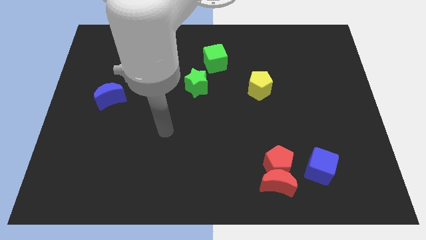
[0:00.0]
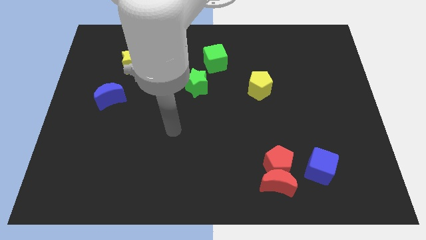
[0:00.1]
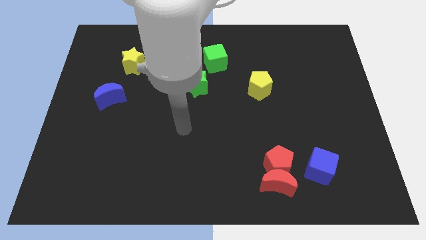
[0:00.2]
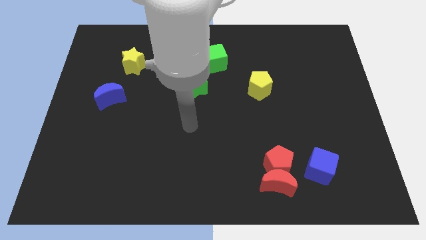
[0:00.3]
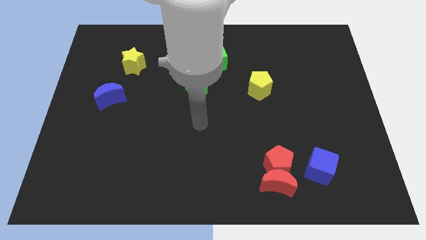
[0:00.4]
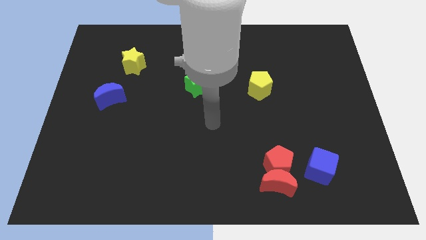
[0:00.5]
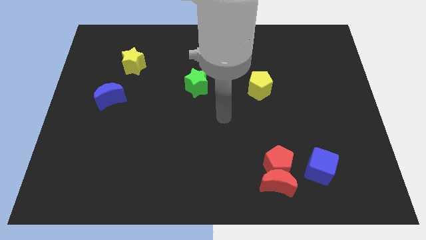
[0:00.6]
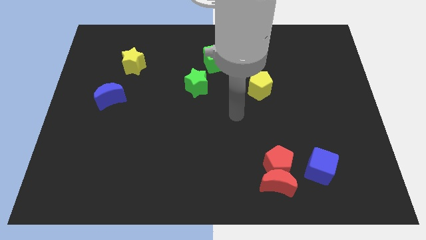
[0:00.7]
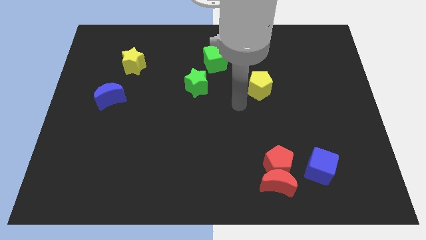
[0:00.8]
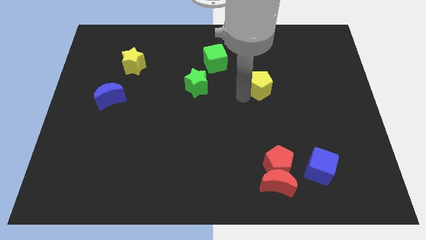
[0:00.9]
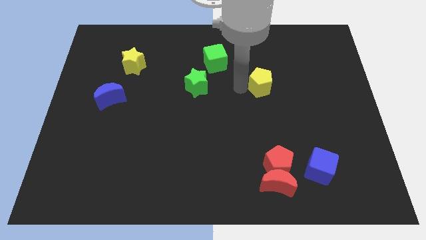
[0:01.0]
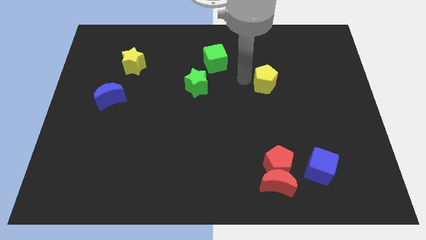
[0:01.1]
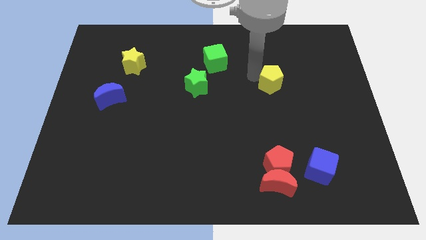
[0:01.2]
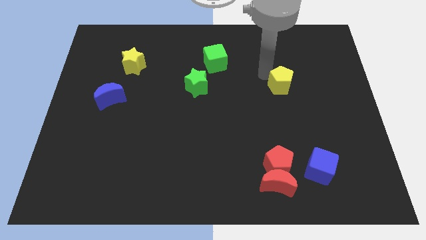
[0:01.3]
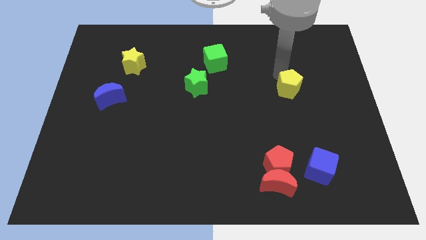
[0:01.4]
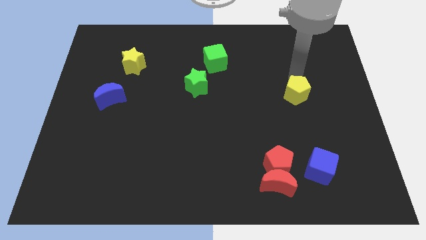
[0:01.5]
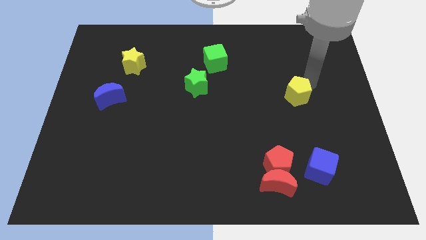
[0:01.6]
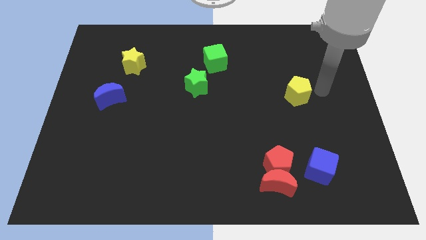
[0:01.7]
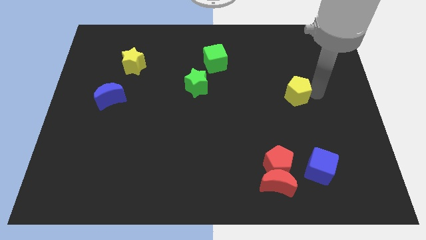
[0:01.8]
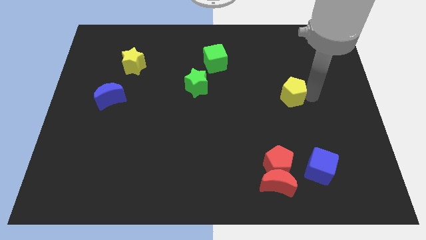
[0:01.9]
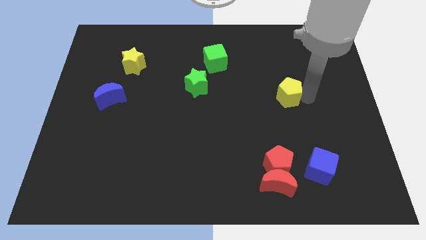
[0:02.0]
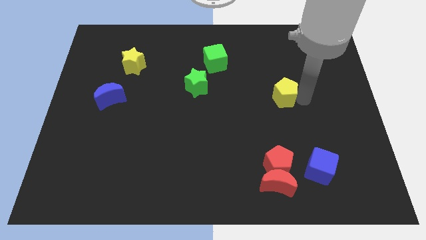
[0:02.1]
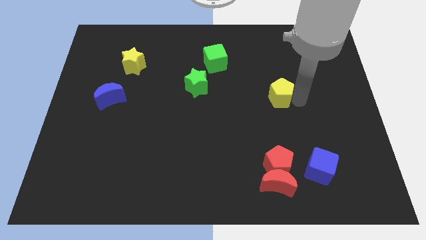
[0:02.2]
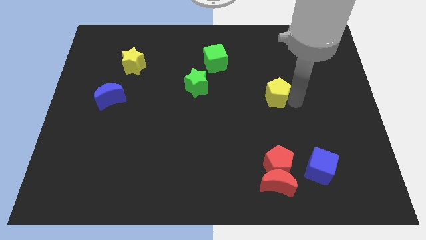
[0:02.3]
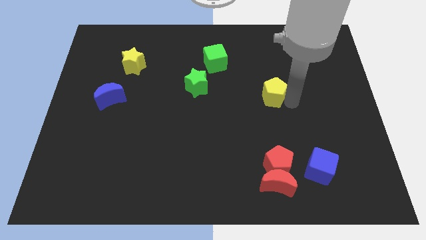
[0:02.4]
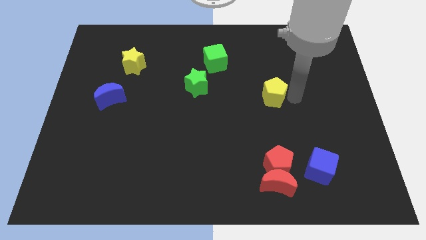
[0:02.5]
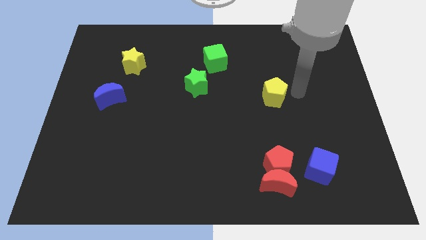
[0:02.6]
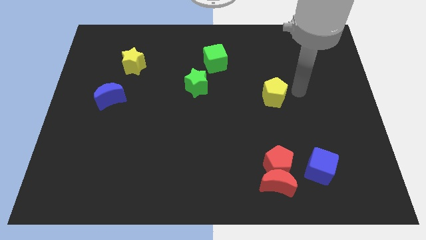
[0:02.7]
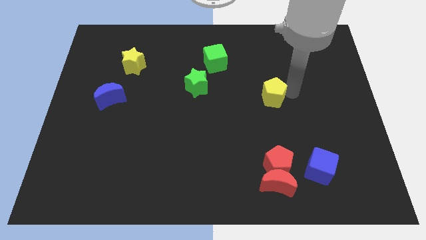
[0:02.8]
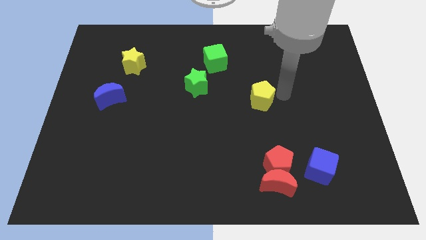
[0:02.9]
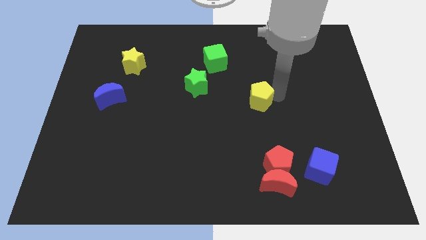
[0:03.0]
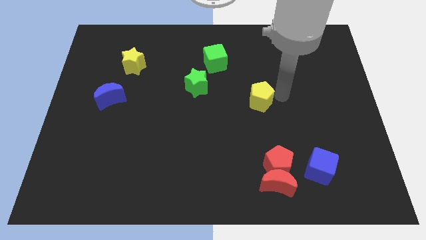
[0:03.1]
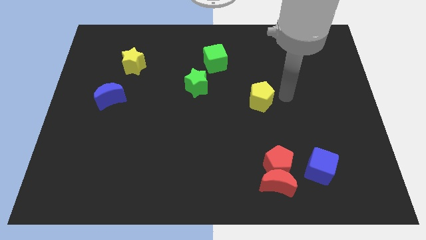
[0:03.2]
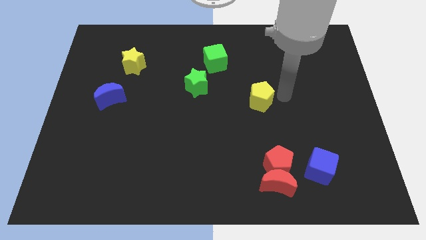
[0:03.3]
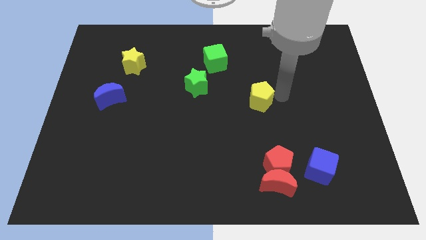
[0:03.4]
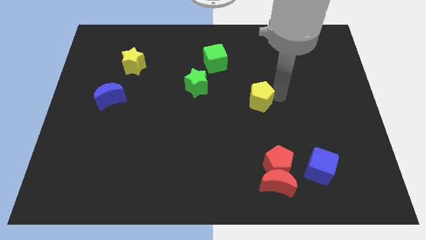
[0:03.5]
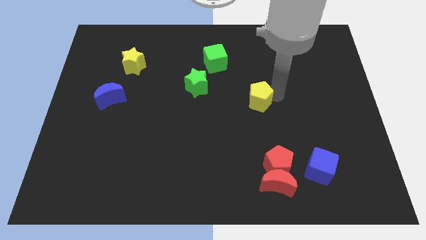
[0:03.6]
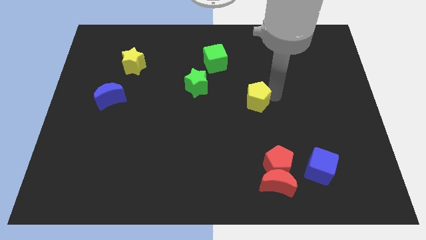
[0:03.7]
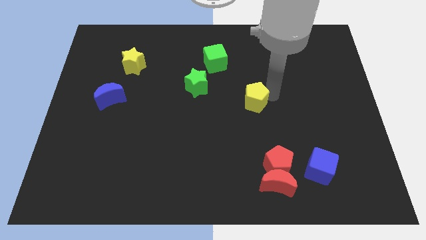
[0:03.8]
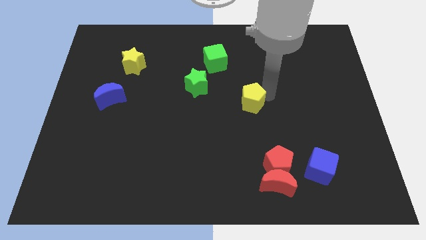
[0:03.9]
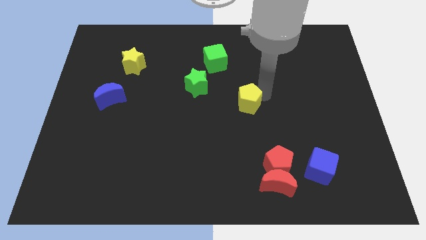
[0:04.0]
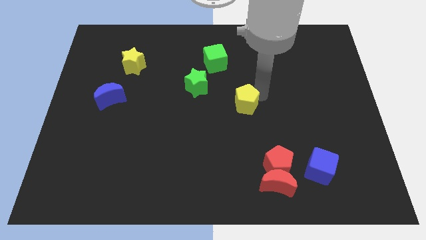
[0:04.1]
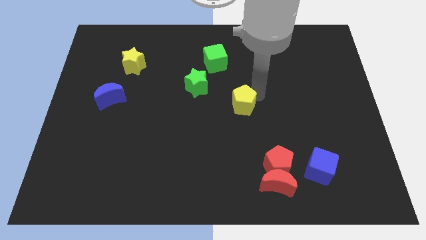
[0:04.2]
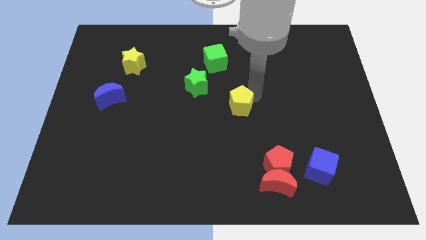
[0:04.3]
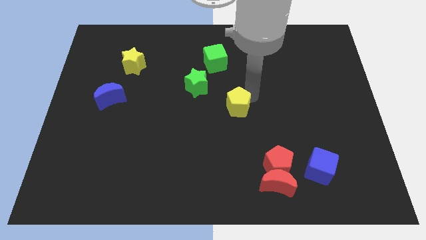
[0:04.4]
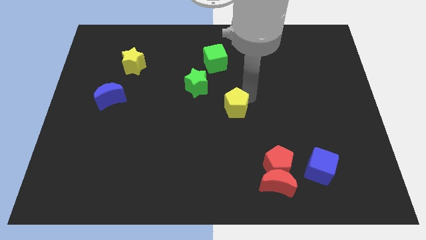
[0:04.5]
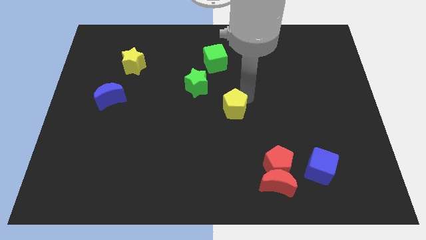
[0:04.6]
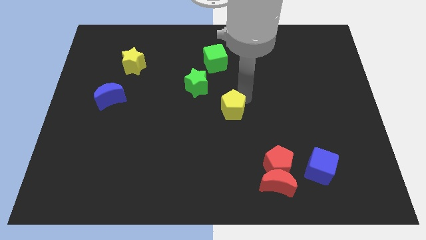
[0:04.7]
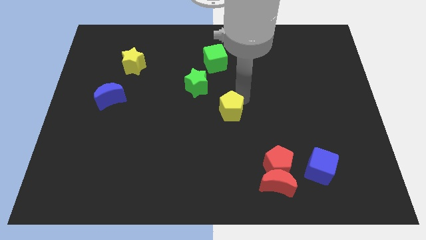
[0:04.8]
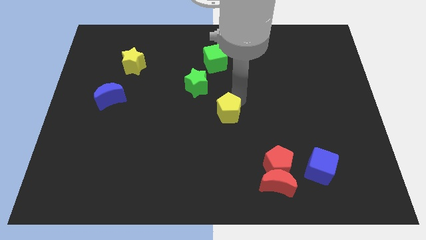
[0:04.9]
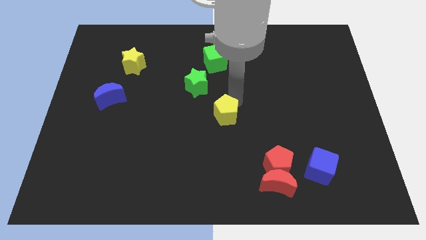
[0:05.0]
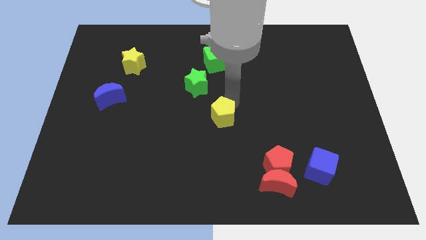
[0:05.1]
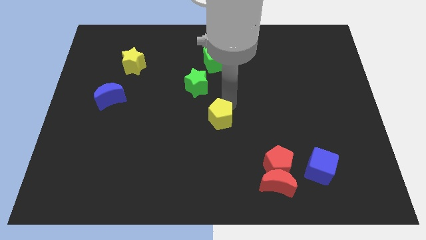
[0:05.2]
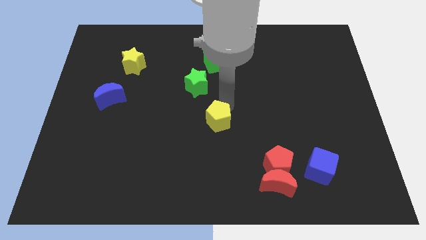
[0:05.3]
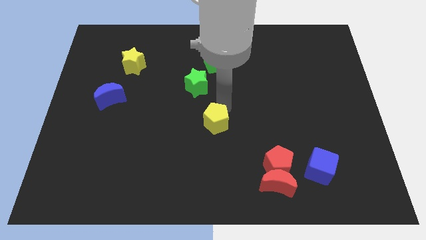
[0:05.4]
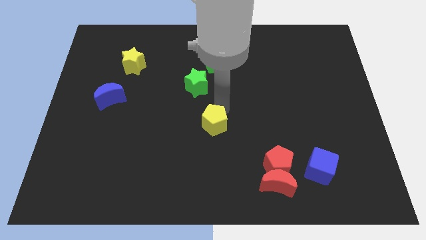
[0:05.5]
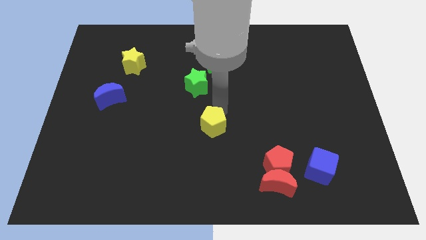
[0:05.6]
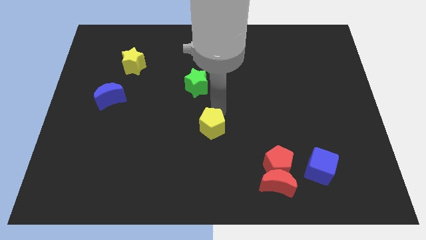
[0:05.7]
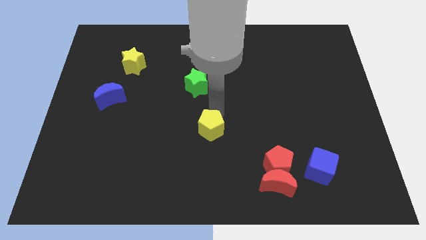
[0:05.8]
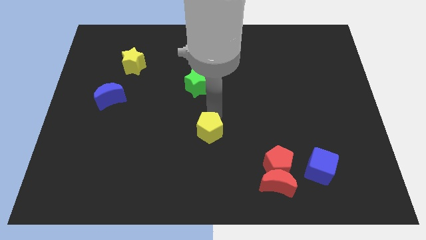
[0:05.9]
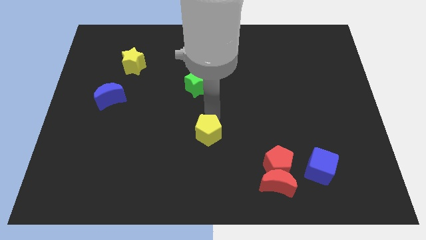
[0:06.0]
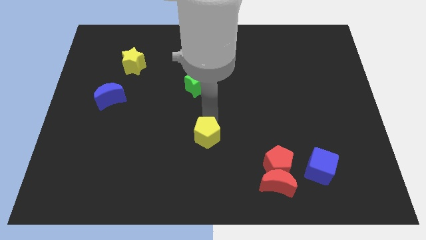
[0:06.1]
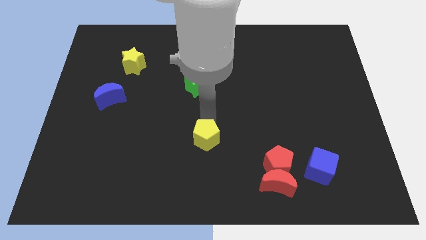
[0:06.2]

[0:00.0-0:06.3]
slide the yellow pentagon downwards and then to the left

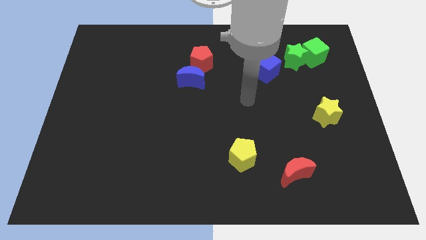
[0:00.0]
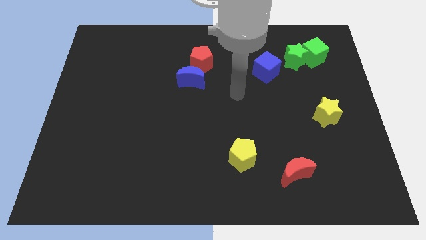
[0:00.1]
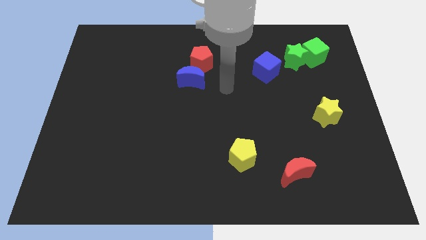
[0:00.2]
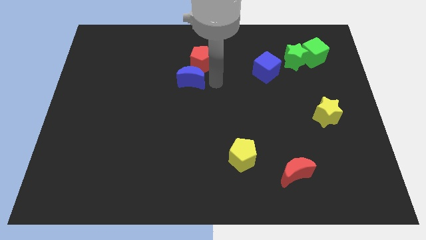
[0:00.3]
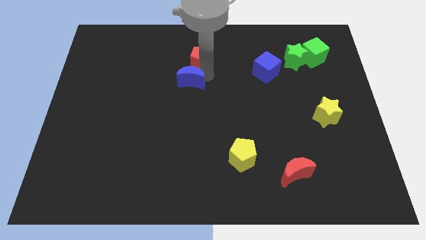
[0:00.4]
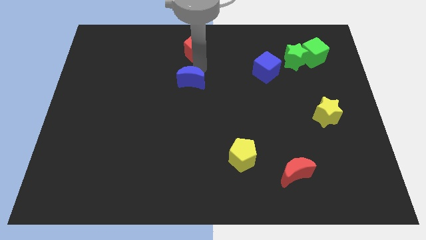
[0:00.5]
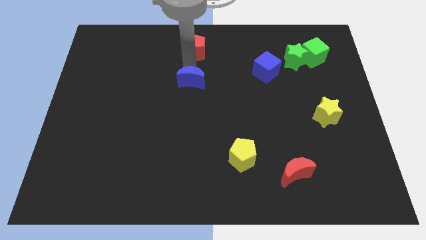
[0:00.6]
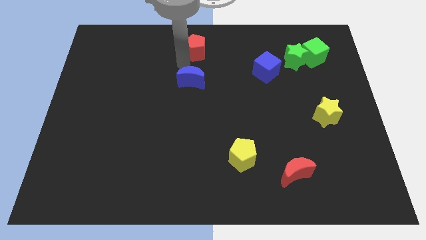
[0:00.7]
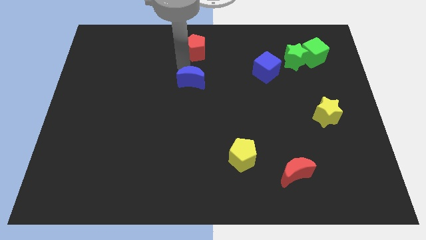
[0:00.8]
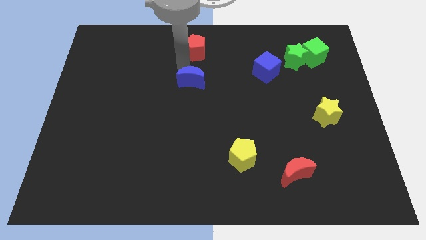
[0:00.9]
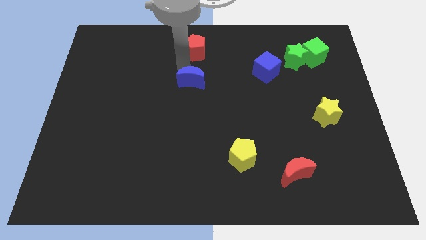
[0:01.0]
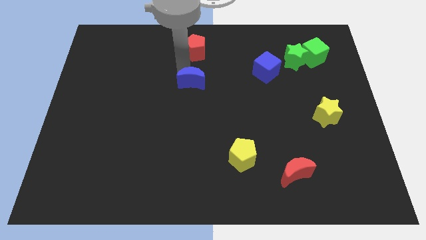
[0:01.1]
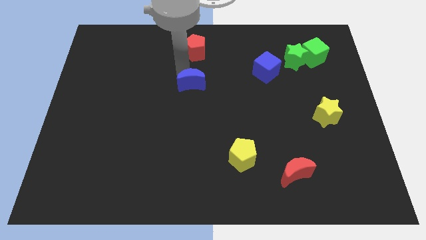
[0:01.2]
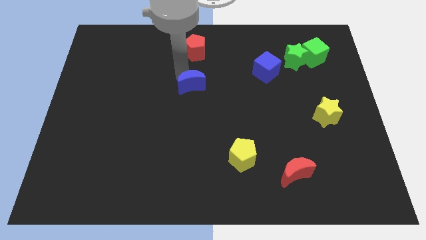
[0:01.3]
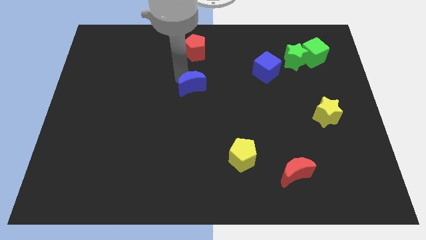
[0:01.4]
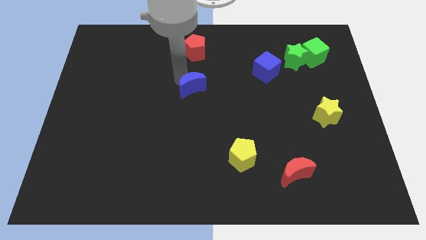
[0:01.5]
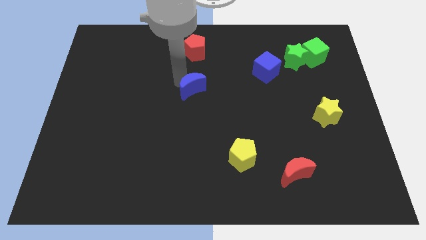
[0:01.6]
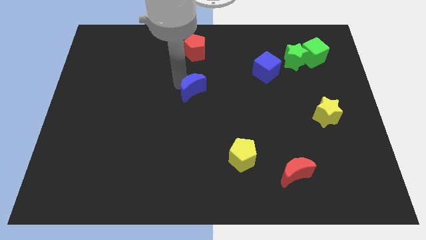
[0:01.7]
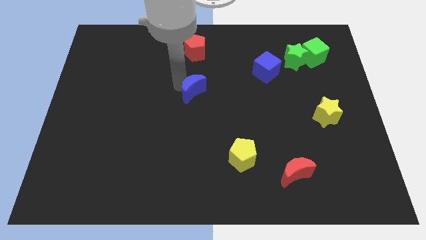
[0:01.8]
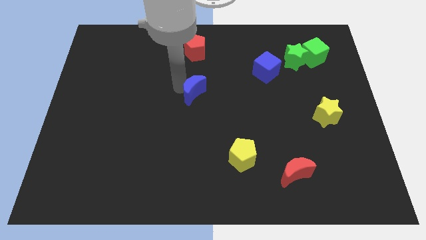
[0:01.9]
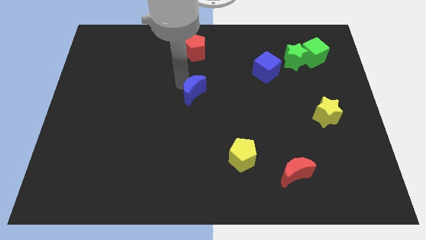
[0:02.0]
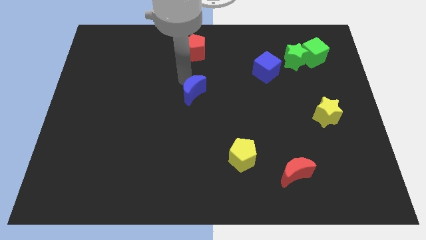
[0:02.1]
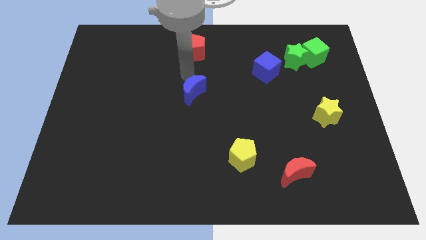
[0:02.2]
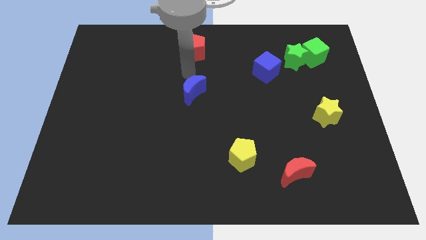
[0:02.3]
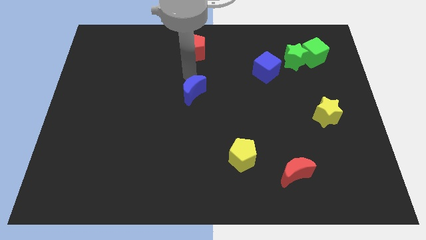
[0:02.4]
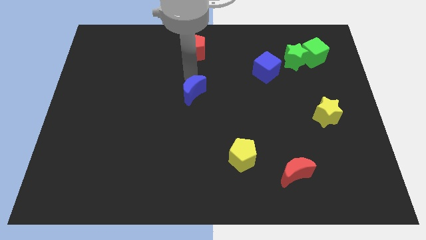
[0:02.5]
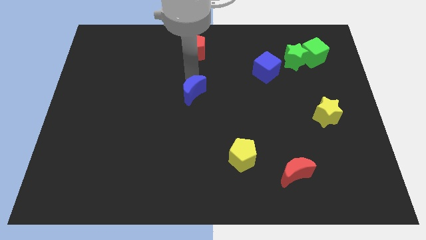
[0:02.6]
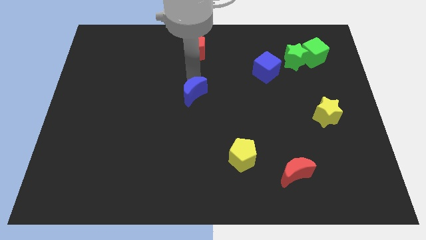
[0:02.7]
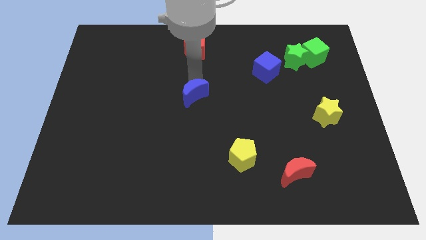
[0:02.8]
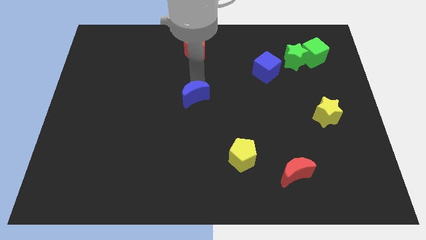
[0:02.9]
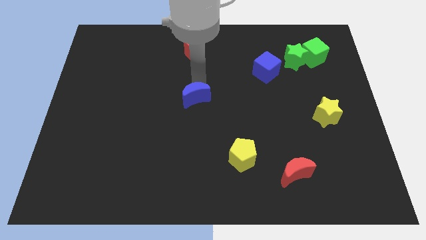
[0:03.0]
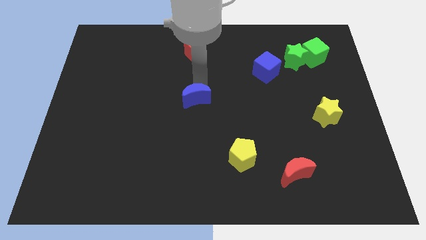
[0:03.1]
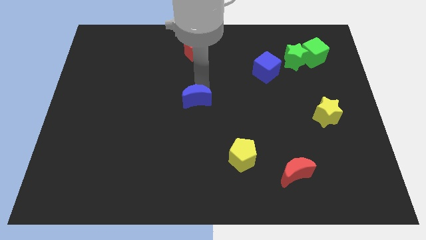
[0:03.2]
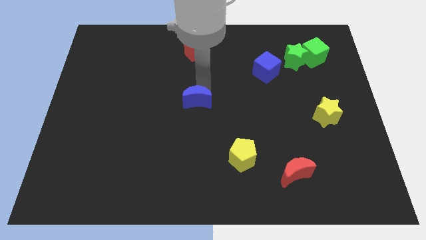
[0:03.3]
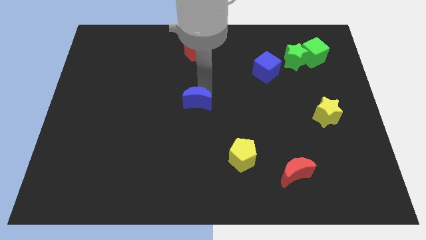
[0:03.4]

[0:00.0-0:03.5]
slightly slide the blue moon downwards
